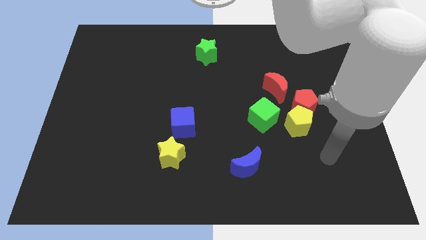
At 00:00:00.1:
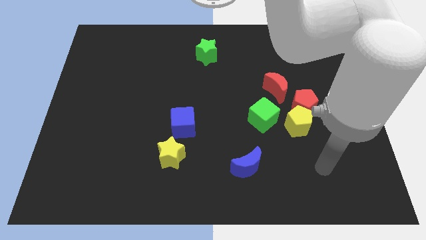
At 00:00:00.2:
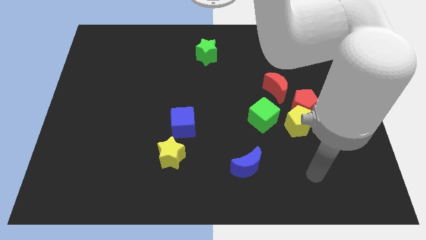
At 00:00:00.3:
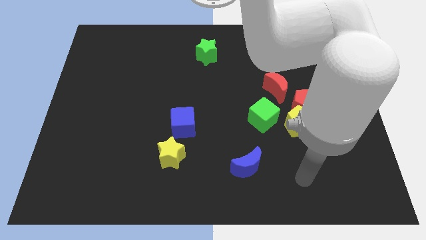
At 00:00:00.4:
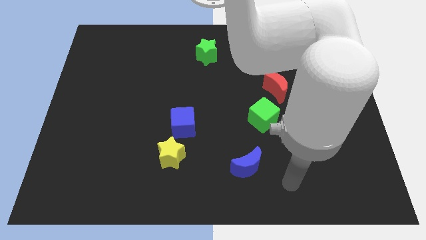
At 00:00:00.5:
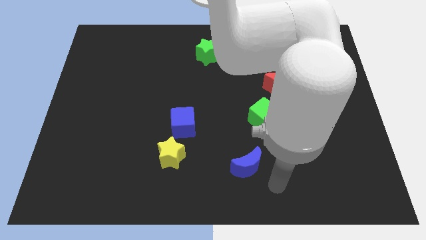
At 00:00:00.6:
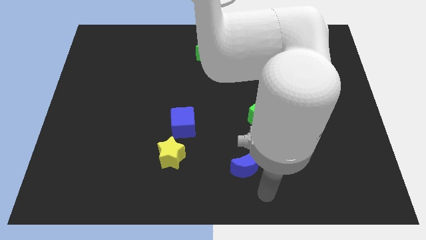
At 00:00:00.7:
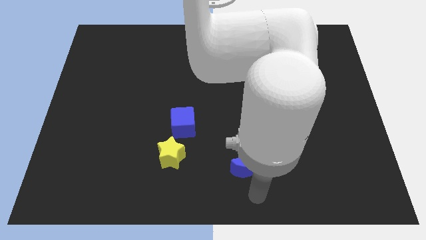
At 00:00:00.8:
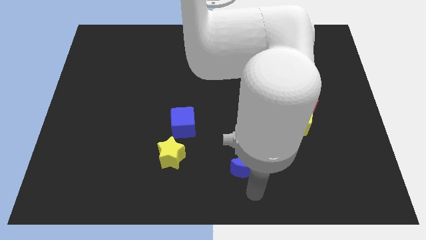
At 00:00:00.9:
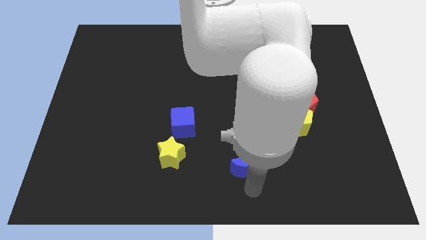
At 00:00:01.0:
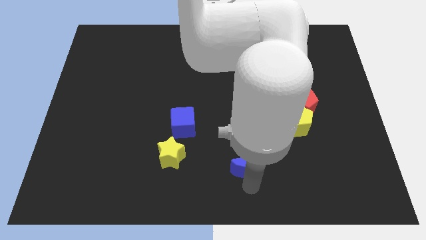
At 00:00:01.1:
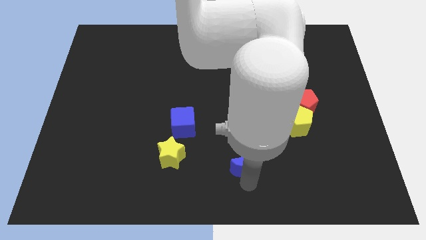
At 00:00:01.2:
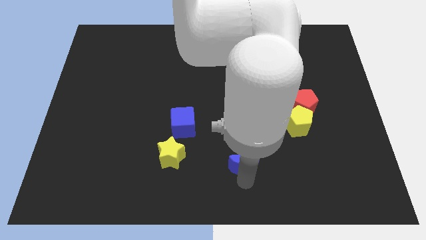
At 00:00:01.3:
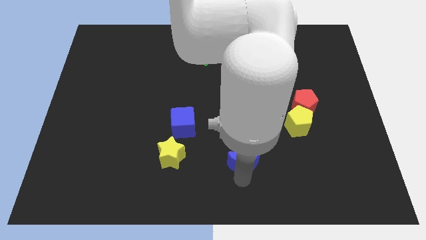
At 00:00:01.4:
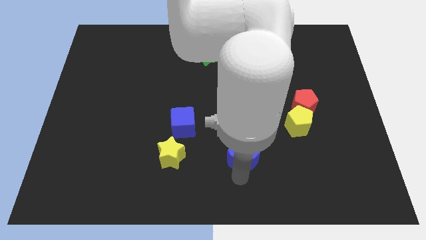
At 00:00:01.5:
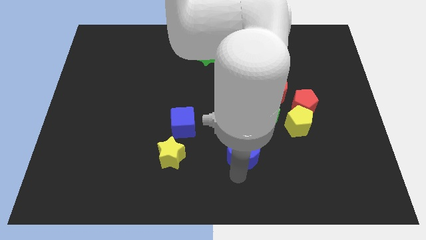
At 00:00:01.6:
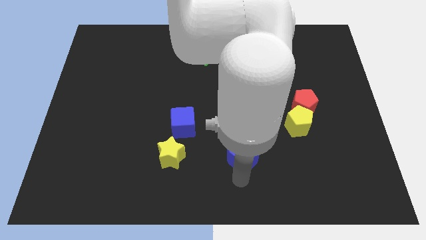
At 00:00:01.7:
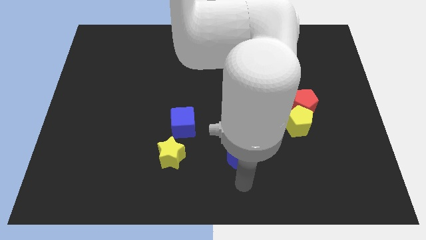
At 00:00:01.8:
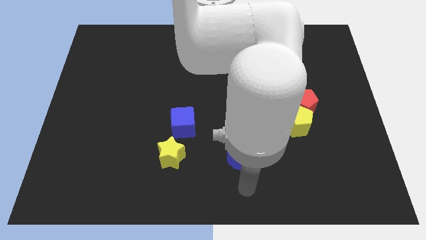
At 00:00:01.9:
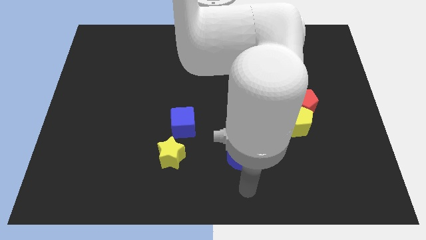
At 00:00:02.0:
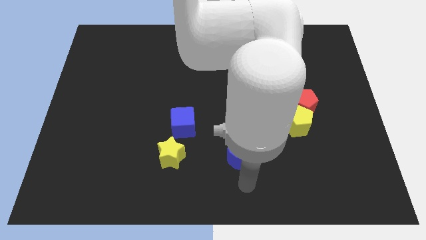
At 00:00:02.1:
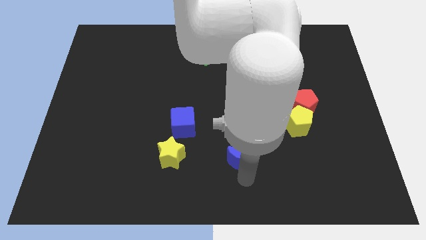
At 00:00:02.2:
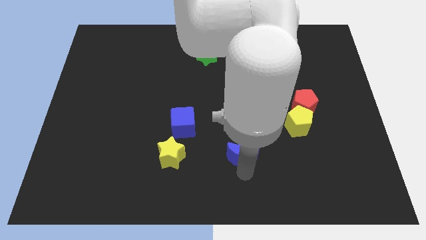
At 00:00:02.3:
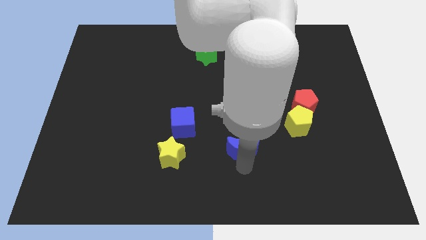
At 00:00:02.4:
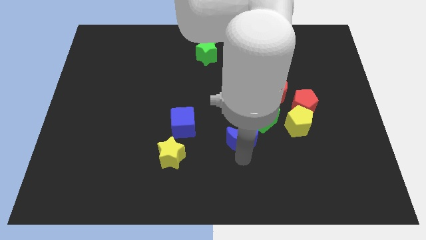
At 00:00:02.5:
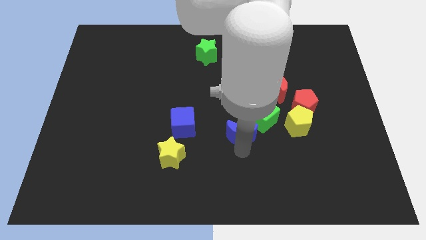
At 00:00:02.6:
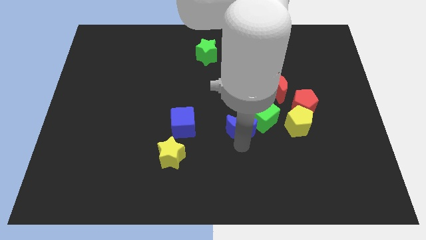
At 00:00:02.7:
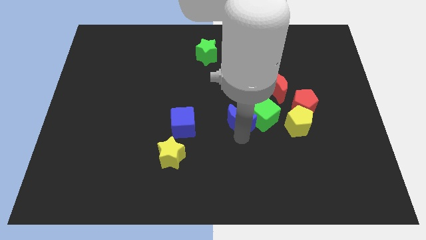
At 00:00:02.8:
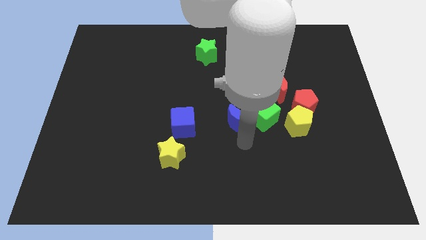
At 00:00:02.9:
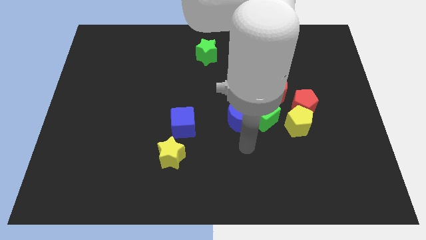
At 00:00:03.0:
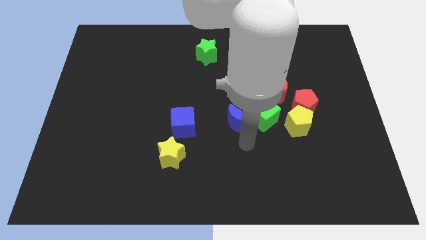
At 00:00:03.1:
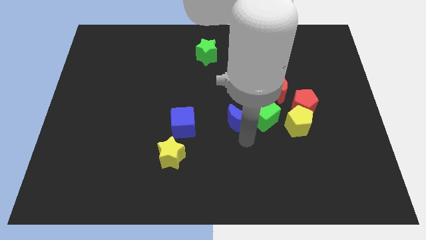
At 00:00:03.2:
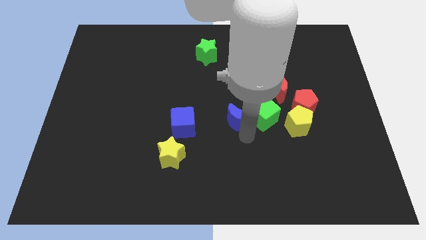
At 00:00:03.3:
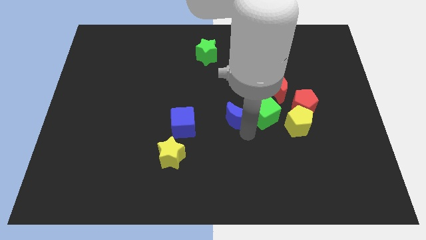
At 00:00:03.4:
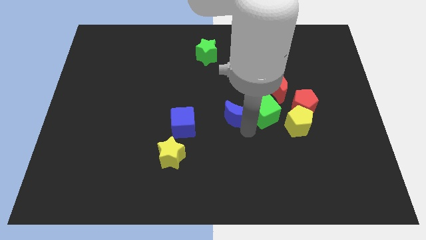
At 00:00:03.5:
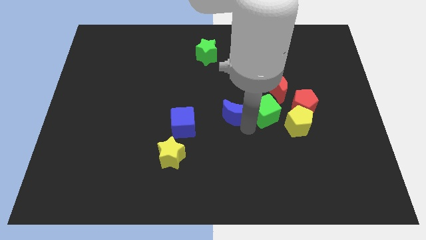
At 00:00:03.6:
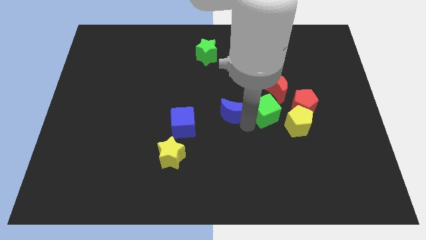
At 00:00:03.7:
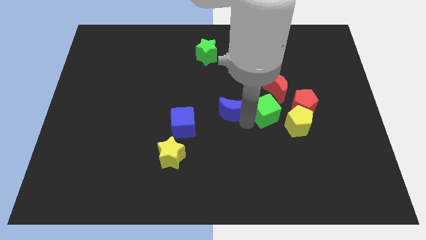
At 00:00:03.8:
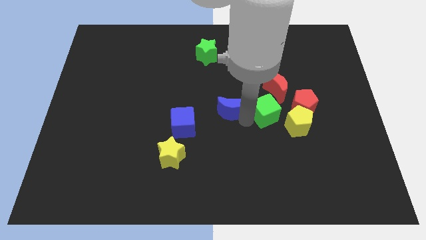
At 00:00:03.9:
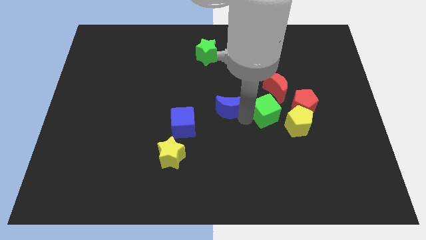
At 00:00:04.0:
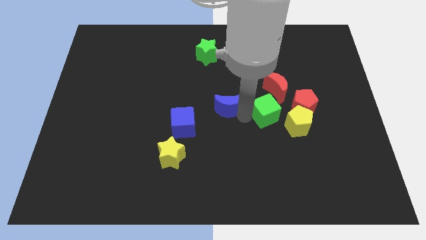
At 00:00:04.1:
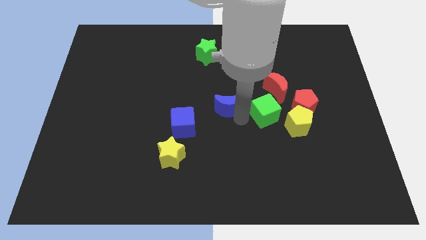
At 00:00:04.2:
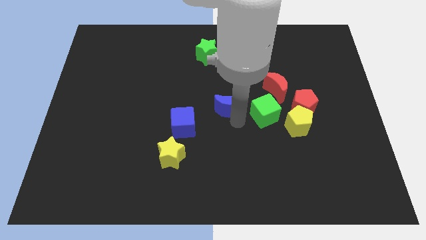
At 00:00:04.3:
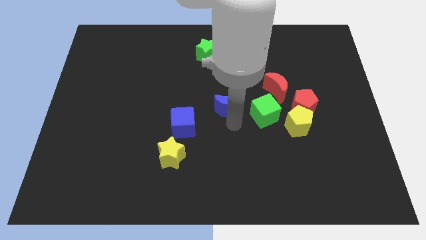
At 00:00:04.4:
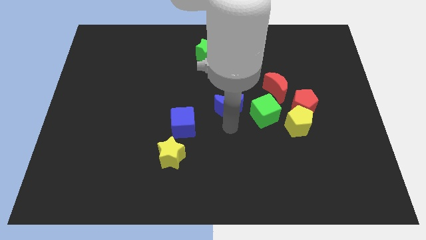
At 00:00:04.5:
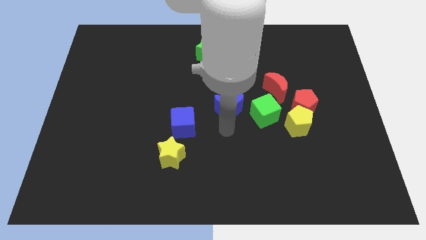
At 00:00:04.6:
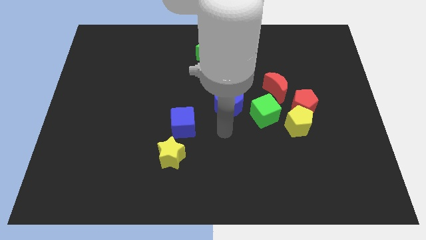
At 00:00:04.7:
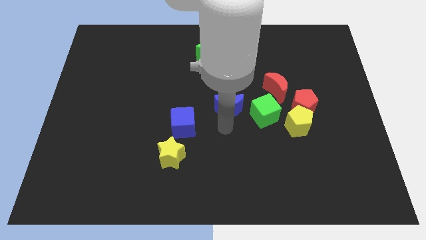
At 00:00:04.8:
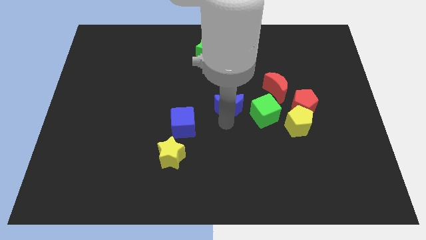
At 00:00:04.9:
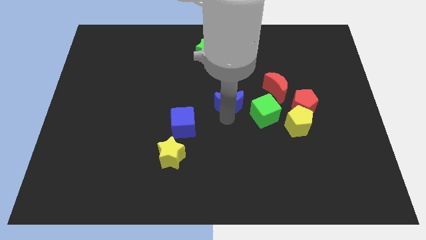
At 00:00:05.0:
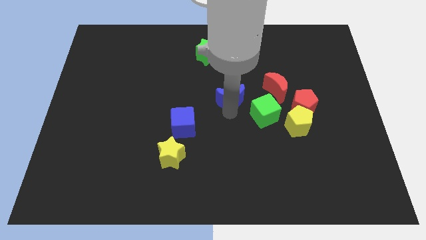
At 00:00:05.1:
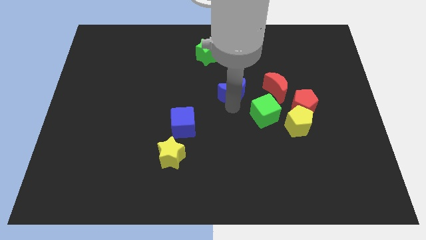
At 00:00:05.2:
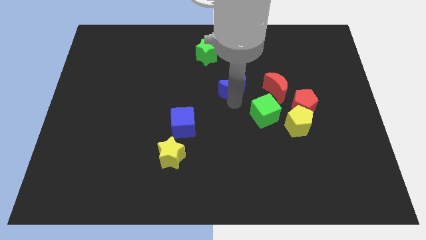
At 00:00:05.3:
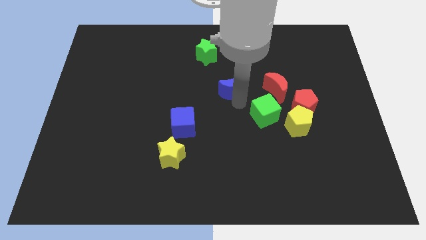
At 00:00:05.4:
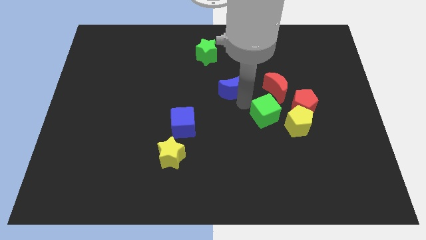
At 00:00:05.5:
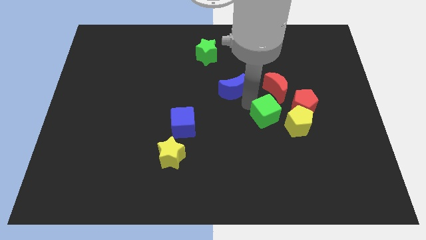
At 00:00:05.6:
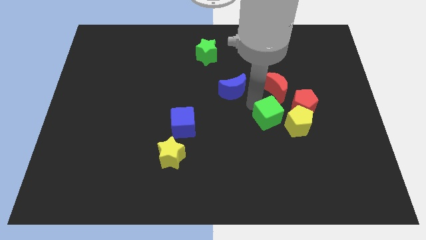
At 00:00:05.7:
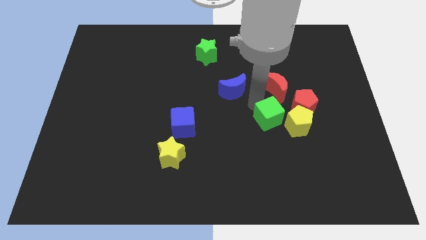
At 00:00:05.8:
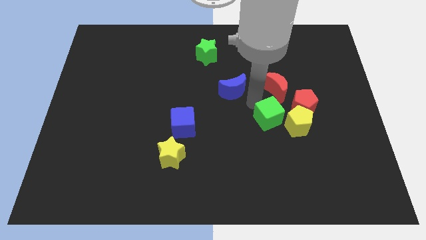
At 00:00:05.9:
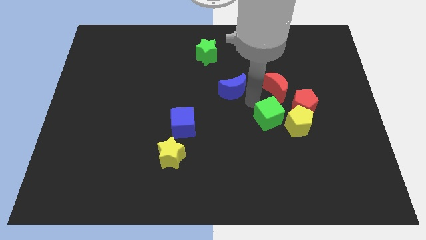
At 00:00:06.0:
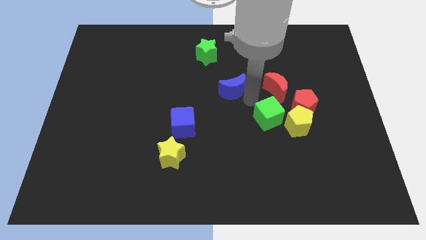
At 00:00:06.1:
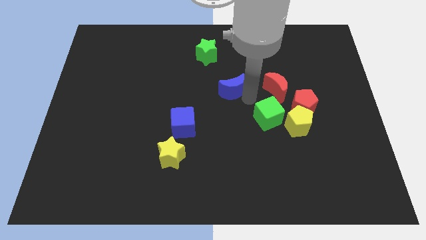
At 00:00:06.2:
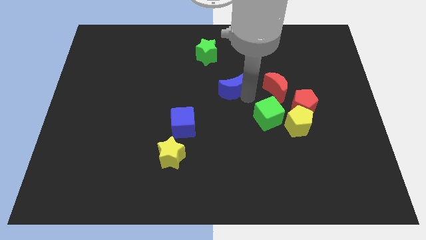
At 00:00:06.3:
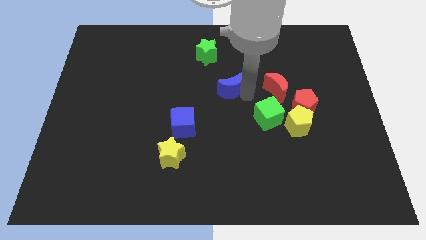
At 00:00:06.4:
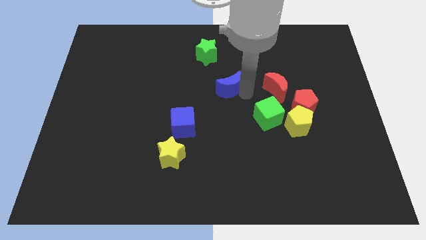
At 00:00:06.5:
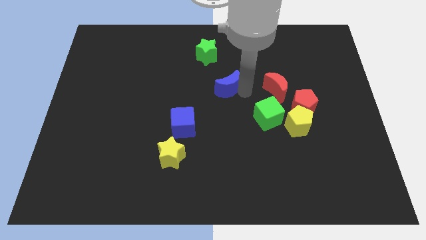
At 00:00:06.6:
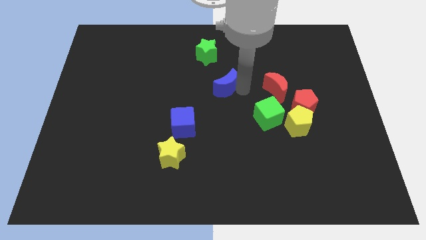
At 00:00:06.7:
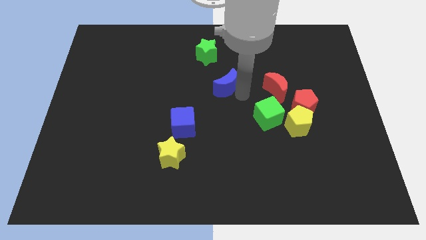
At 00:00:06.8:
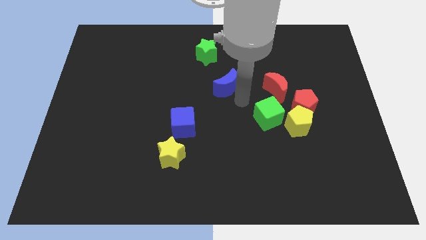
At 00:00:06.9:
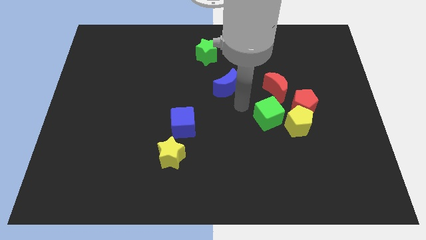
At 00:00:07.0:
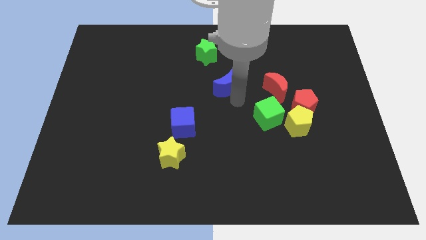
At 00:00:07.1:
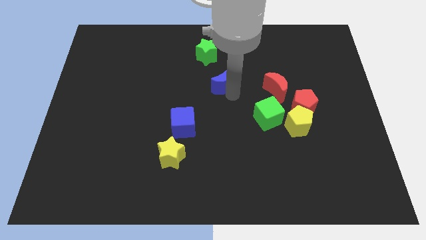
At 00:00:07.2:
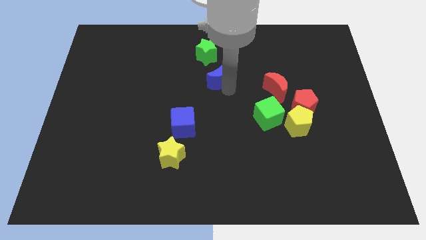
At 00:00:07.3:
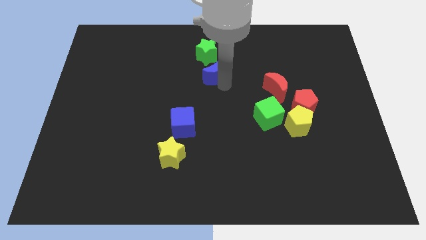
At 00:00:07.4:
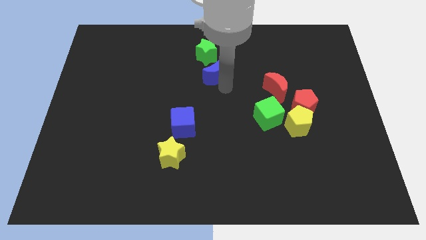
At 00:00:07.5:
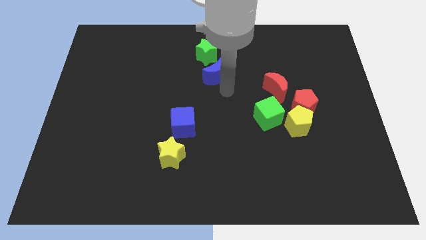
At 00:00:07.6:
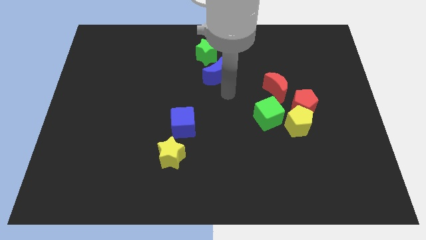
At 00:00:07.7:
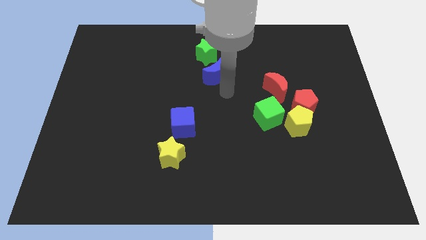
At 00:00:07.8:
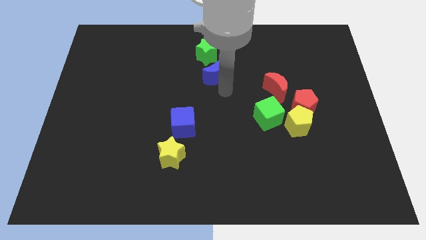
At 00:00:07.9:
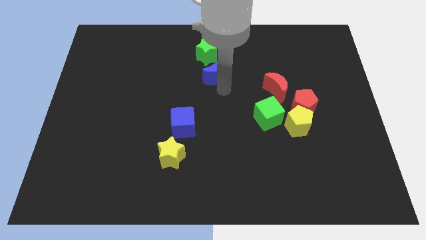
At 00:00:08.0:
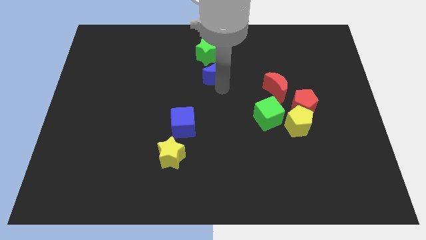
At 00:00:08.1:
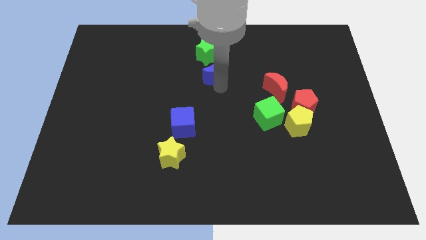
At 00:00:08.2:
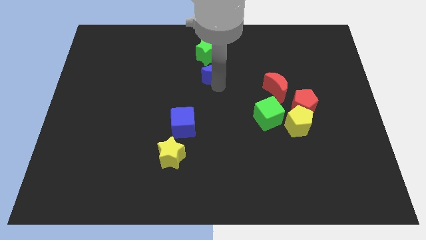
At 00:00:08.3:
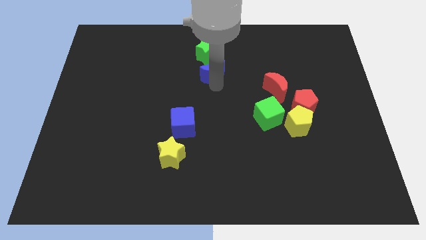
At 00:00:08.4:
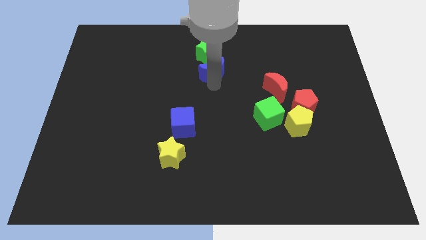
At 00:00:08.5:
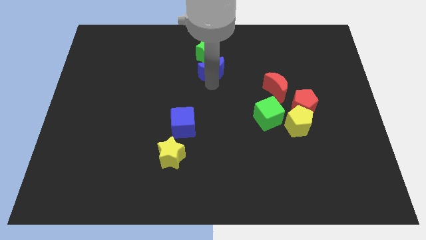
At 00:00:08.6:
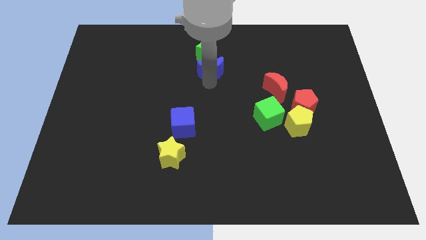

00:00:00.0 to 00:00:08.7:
slide the blue moon close to the green star
